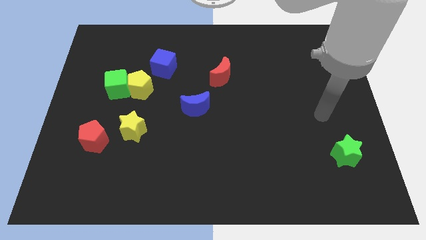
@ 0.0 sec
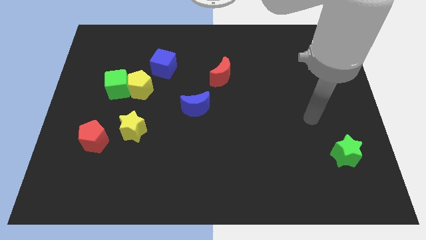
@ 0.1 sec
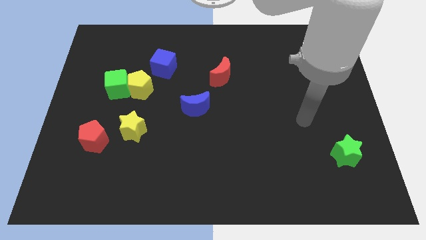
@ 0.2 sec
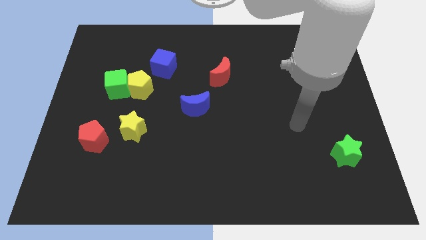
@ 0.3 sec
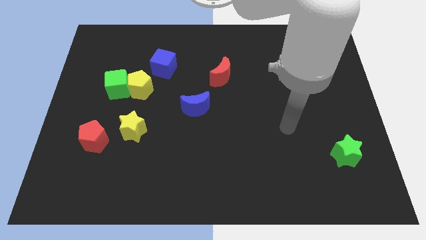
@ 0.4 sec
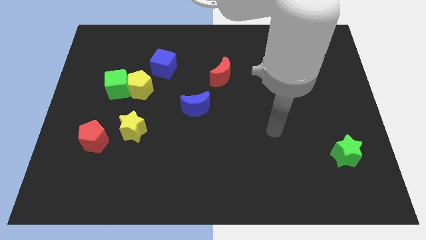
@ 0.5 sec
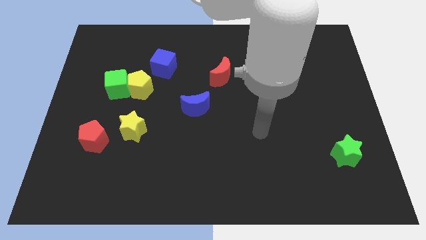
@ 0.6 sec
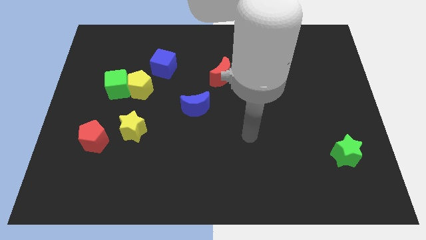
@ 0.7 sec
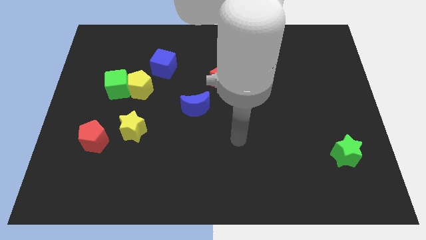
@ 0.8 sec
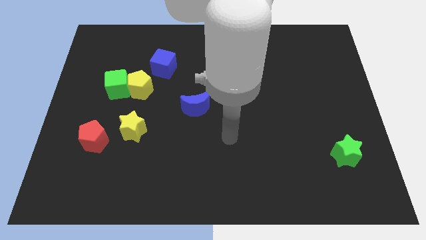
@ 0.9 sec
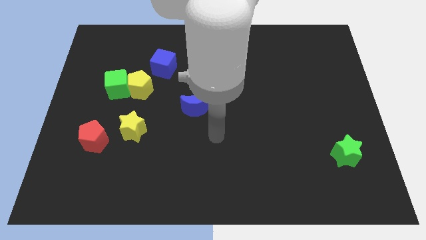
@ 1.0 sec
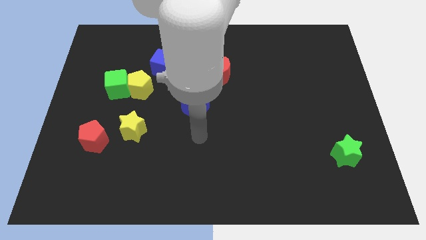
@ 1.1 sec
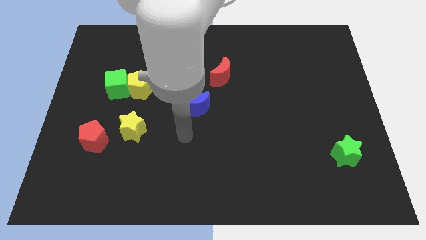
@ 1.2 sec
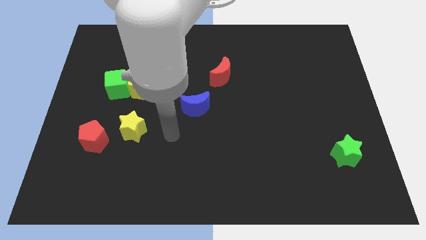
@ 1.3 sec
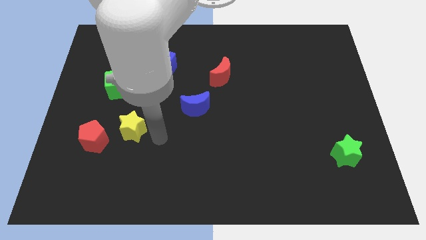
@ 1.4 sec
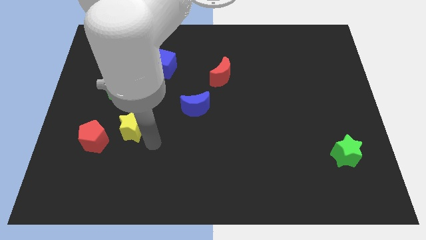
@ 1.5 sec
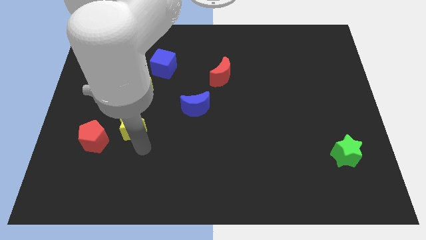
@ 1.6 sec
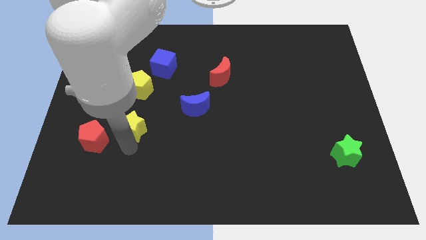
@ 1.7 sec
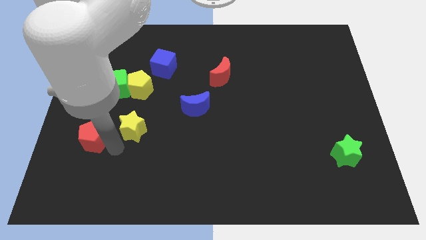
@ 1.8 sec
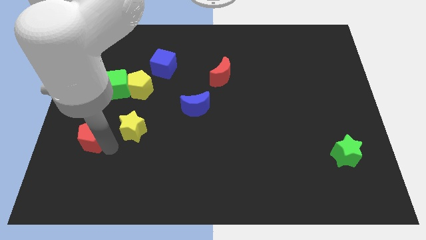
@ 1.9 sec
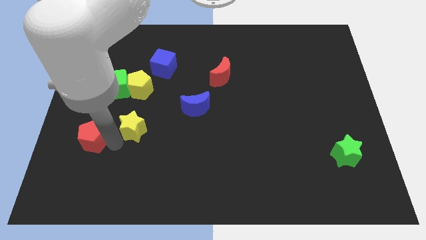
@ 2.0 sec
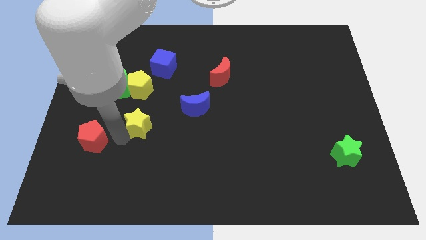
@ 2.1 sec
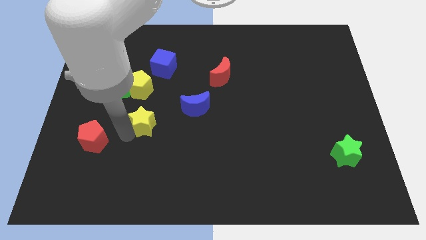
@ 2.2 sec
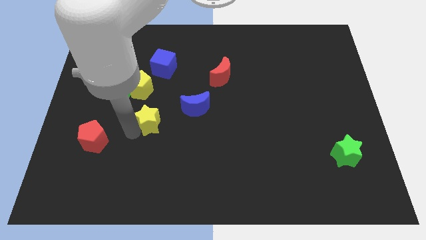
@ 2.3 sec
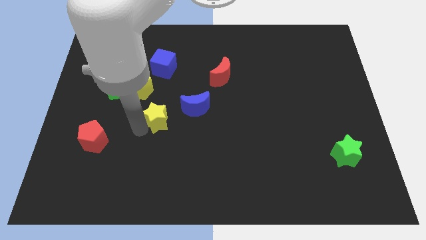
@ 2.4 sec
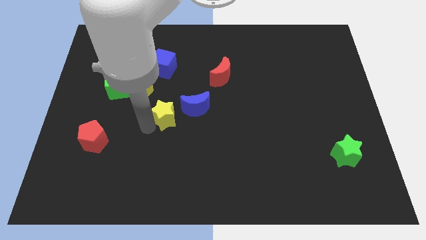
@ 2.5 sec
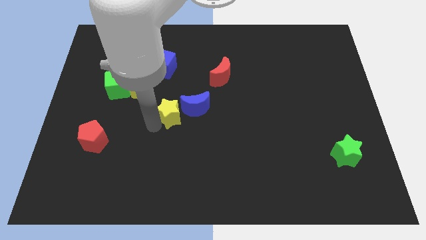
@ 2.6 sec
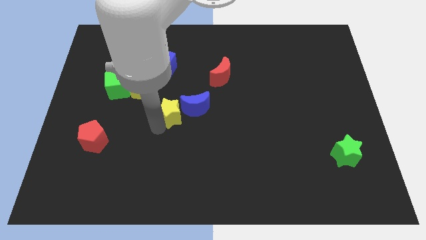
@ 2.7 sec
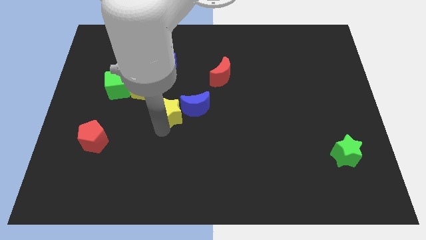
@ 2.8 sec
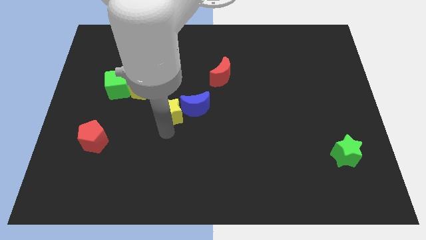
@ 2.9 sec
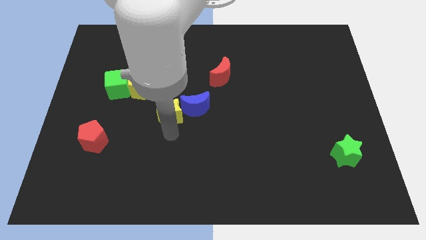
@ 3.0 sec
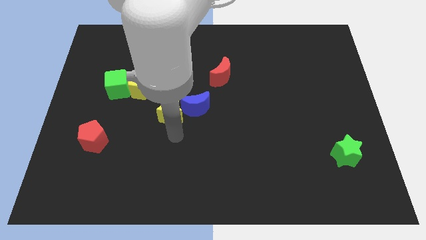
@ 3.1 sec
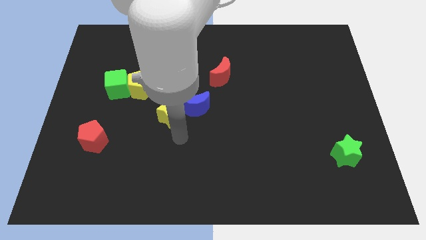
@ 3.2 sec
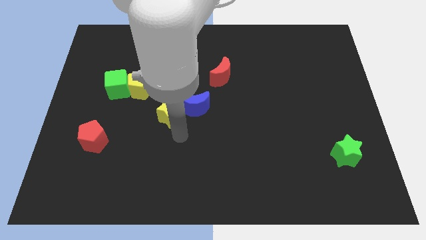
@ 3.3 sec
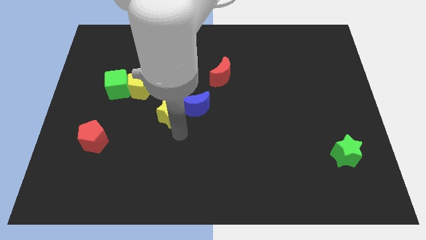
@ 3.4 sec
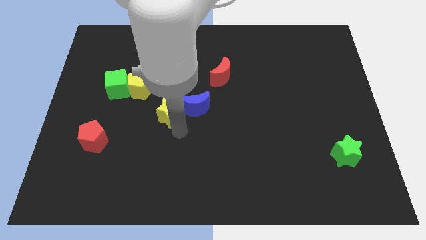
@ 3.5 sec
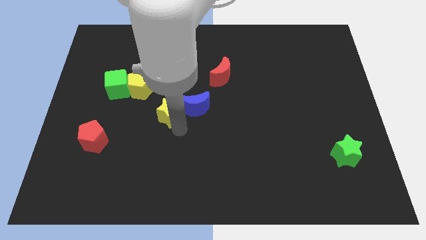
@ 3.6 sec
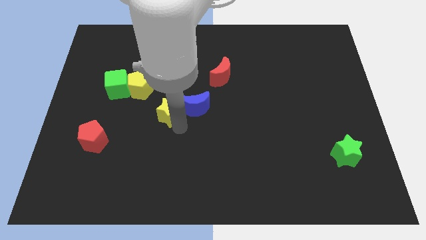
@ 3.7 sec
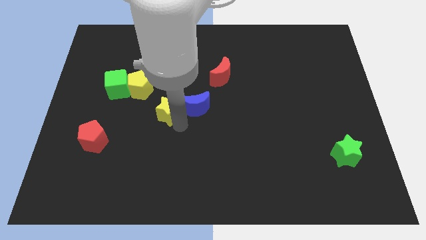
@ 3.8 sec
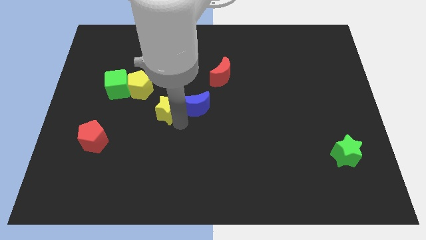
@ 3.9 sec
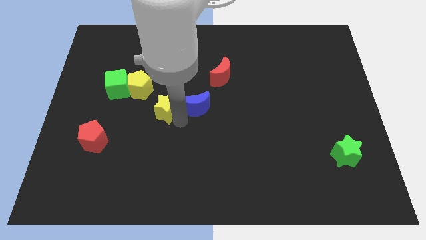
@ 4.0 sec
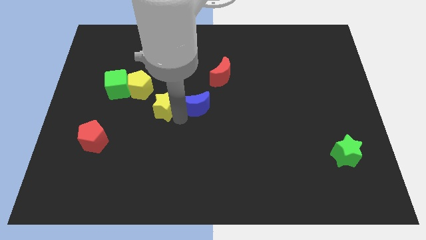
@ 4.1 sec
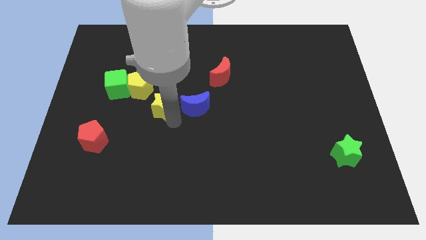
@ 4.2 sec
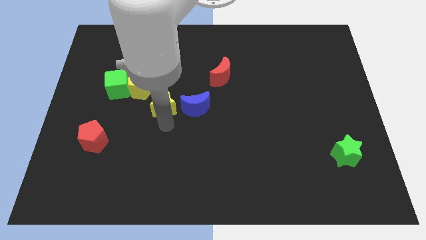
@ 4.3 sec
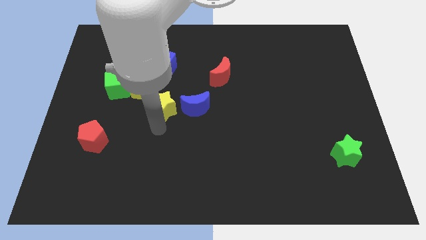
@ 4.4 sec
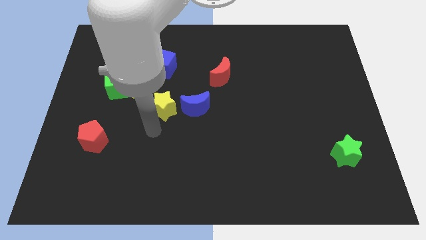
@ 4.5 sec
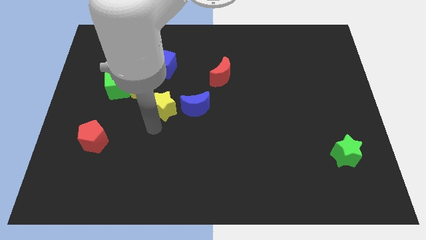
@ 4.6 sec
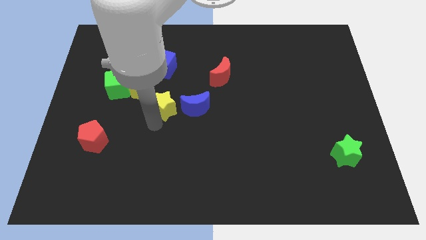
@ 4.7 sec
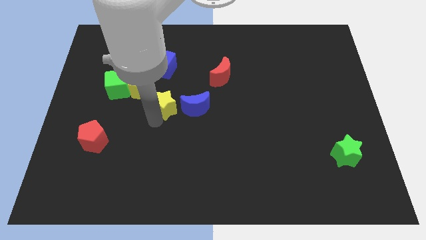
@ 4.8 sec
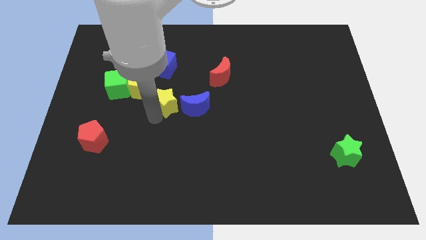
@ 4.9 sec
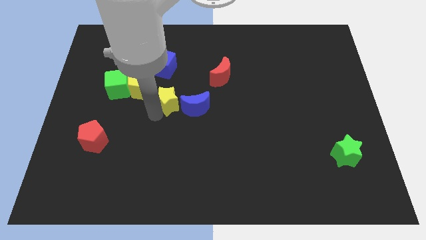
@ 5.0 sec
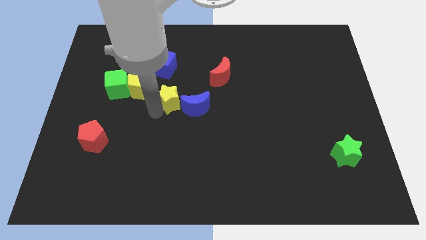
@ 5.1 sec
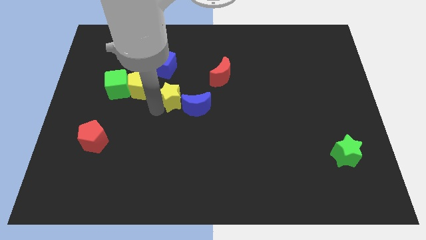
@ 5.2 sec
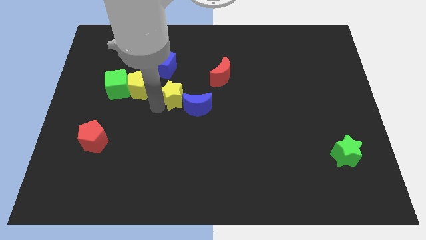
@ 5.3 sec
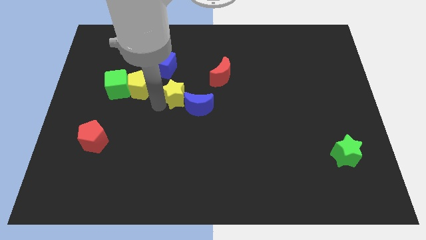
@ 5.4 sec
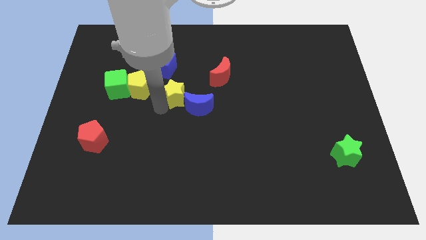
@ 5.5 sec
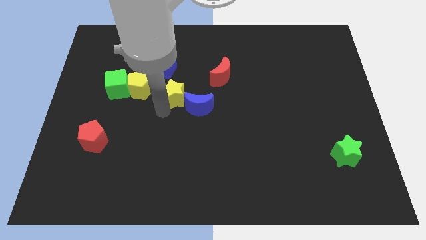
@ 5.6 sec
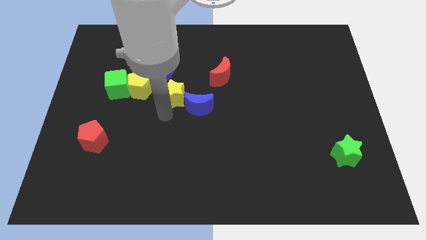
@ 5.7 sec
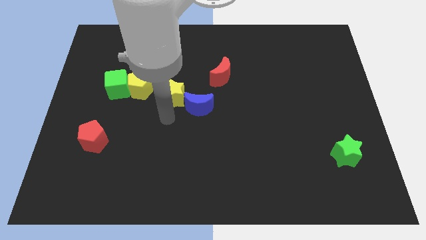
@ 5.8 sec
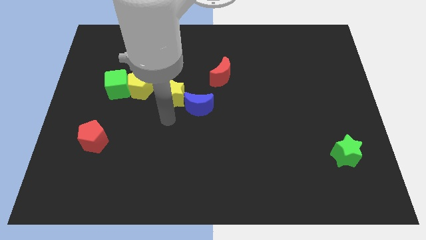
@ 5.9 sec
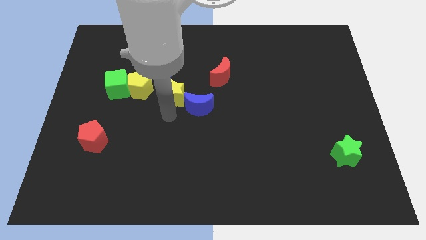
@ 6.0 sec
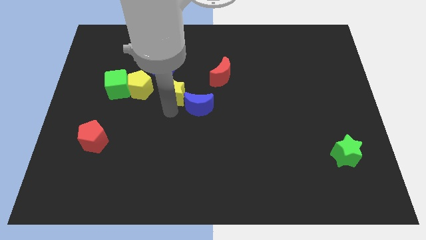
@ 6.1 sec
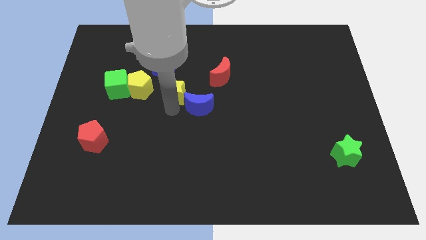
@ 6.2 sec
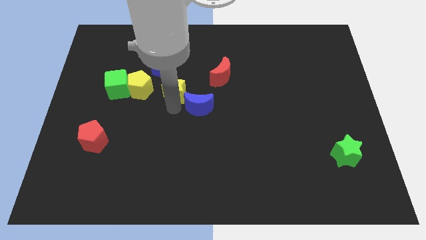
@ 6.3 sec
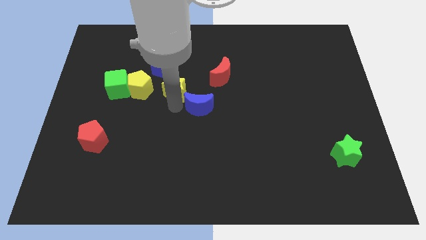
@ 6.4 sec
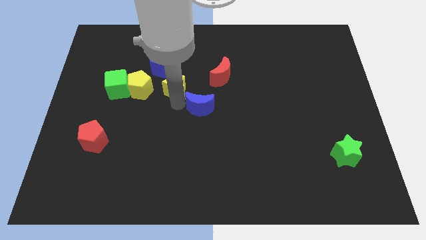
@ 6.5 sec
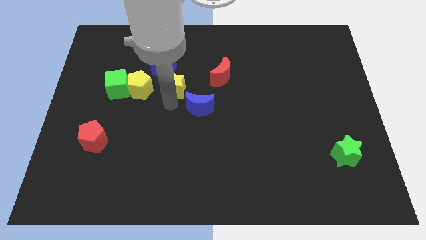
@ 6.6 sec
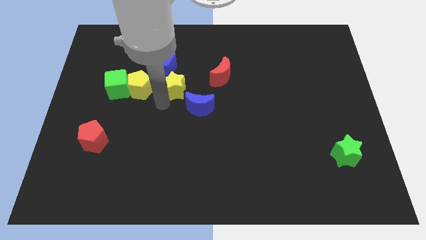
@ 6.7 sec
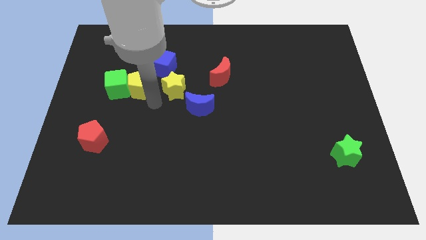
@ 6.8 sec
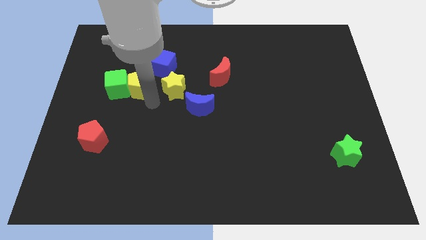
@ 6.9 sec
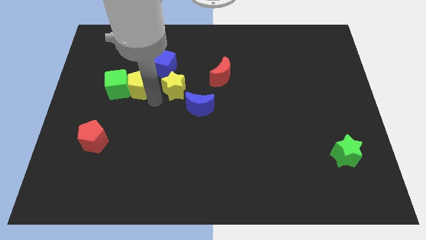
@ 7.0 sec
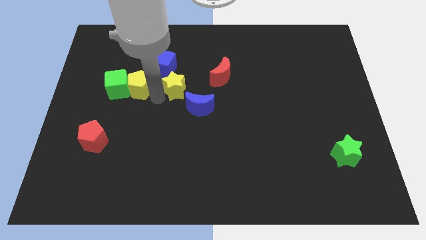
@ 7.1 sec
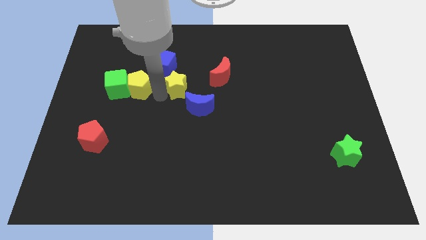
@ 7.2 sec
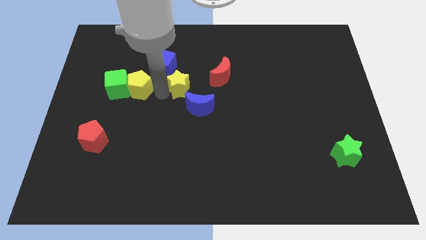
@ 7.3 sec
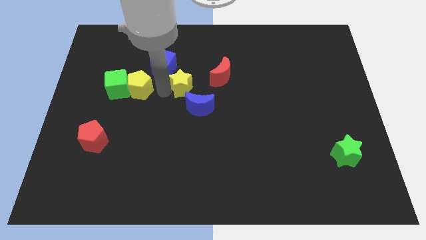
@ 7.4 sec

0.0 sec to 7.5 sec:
put the yellow star to the top of the blue moon
